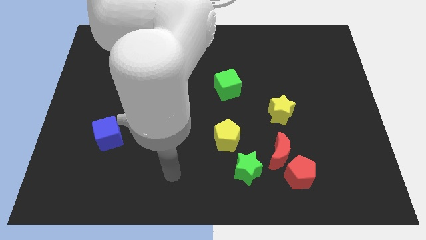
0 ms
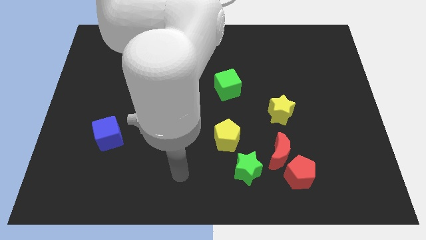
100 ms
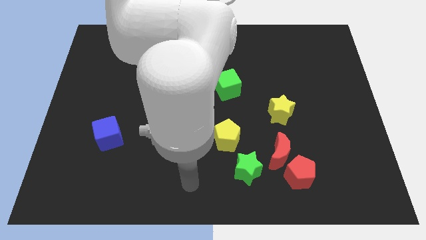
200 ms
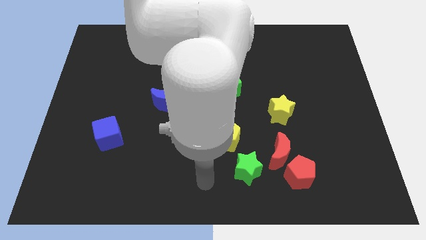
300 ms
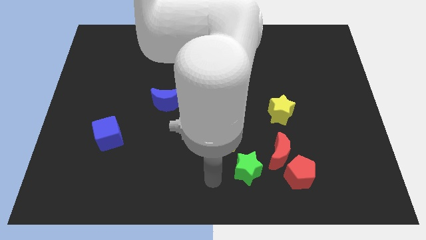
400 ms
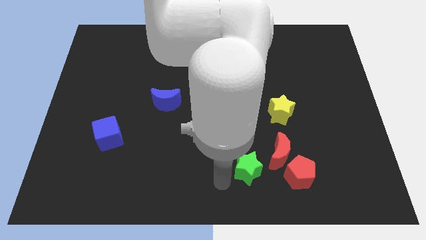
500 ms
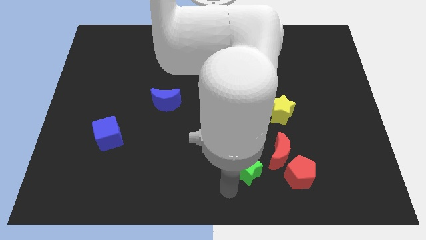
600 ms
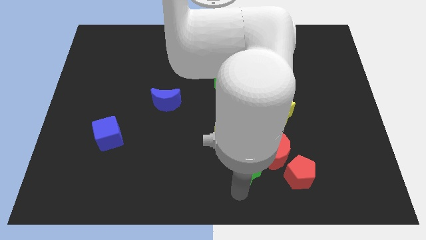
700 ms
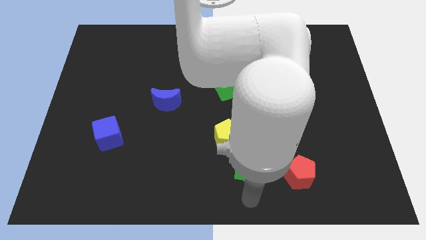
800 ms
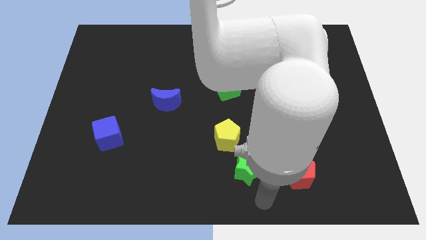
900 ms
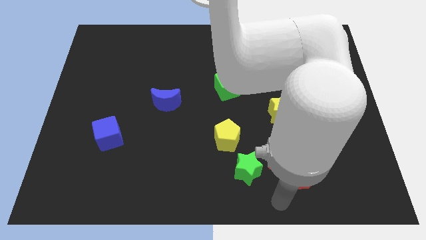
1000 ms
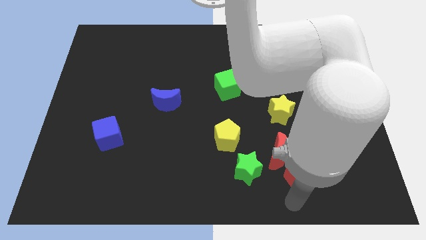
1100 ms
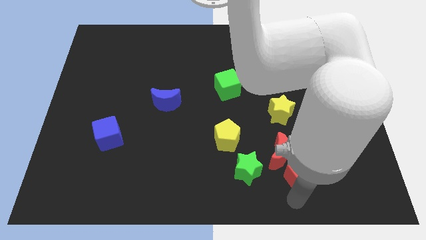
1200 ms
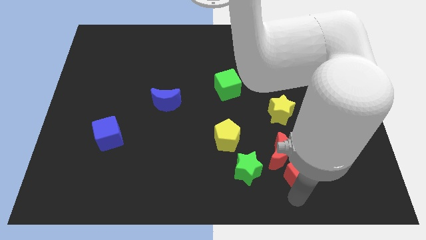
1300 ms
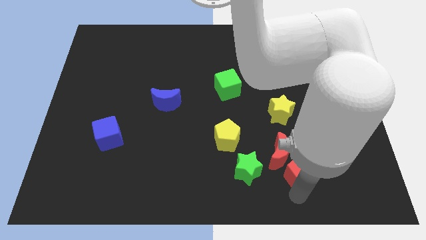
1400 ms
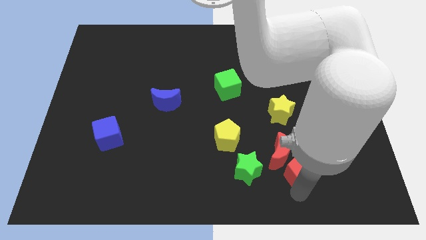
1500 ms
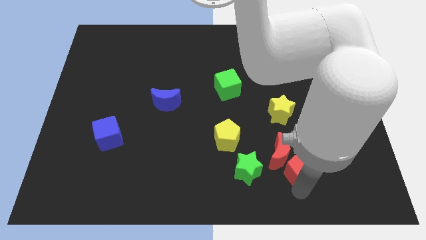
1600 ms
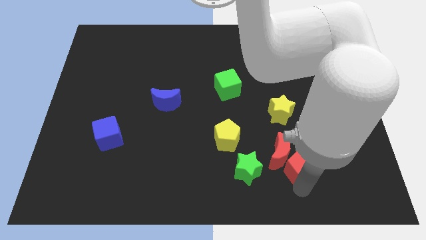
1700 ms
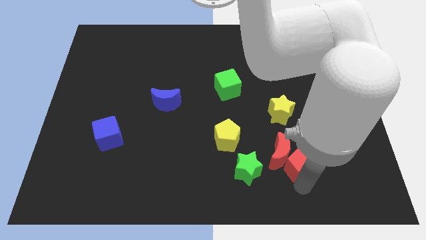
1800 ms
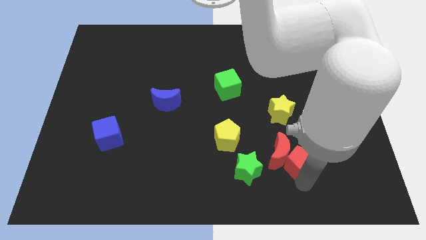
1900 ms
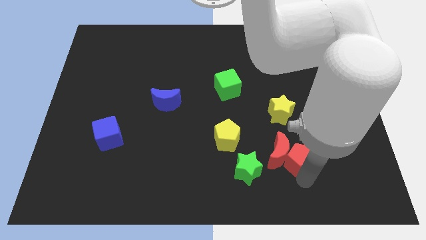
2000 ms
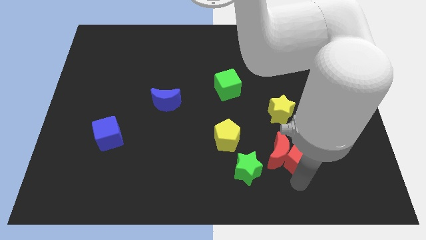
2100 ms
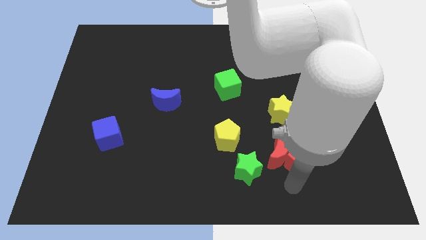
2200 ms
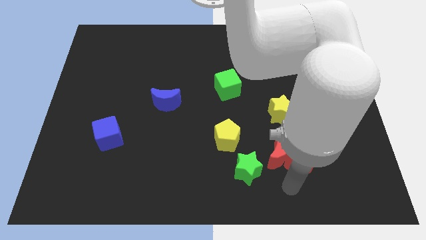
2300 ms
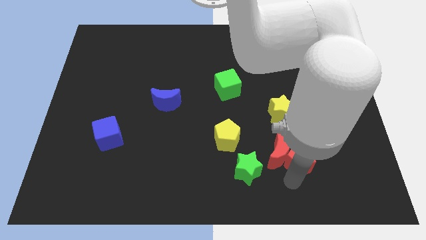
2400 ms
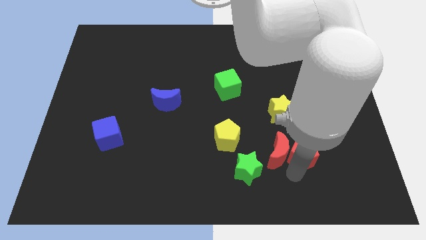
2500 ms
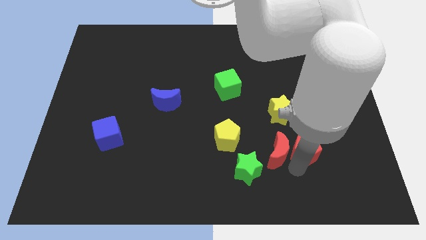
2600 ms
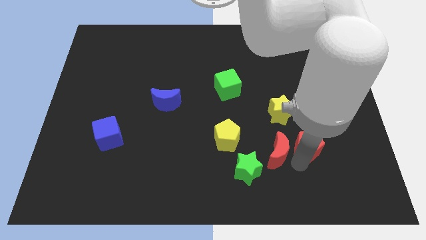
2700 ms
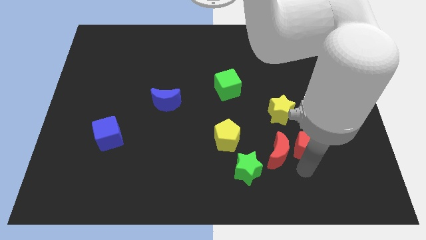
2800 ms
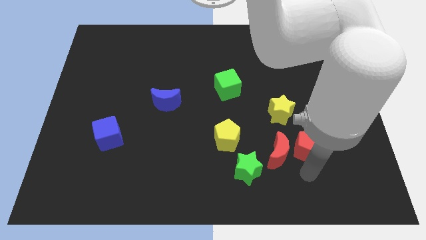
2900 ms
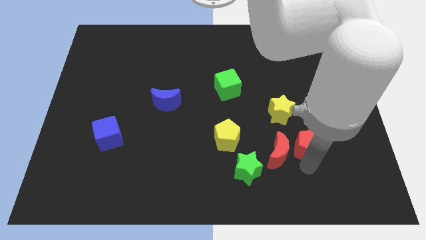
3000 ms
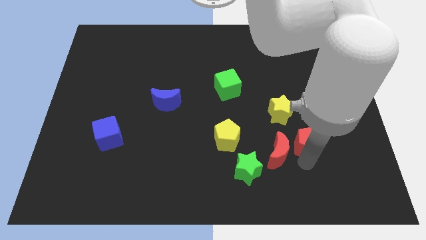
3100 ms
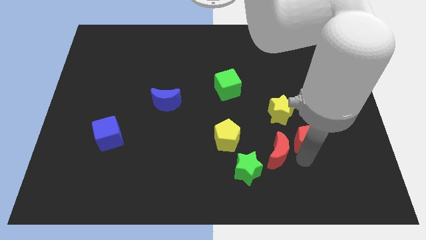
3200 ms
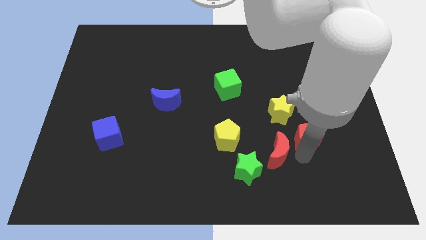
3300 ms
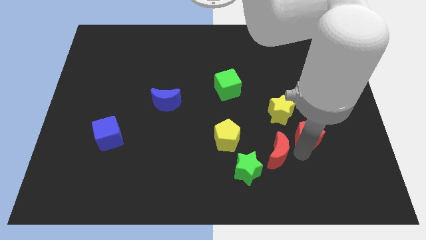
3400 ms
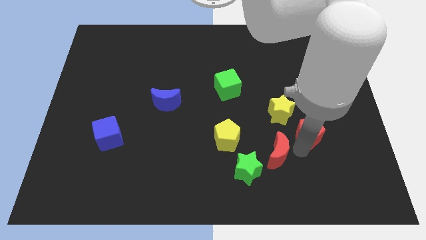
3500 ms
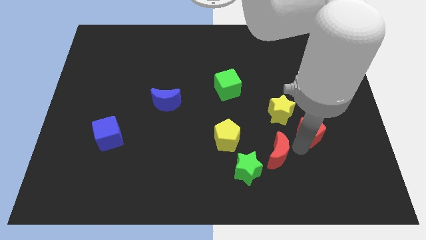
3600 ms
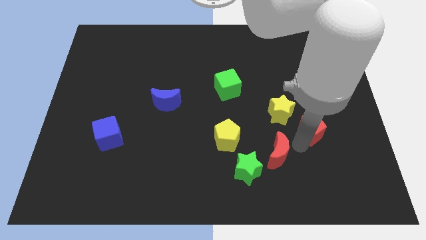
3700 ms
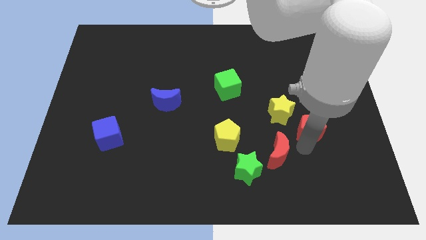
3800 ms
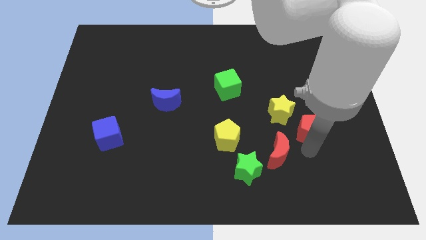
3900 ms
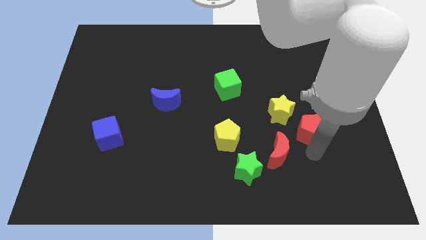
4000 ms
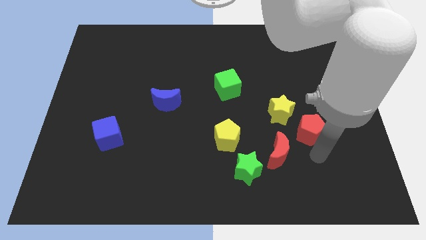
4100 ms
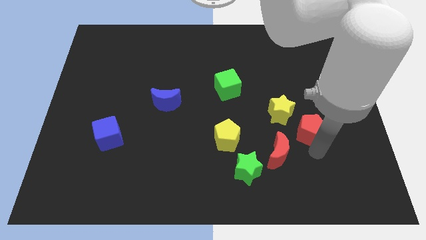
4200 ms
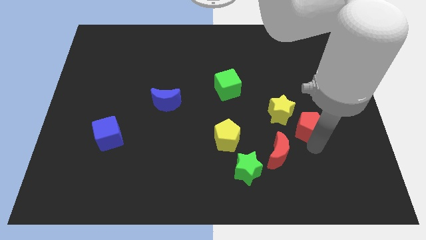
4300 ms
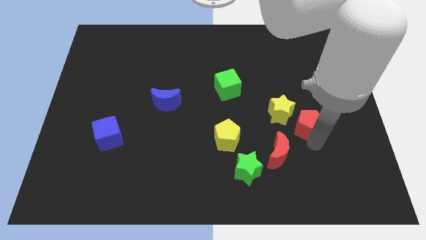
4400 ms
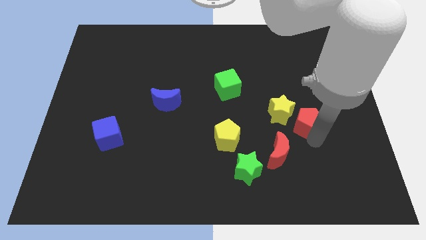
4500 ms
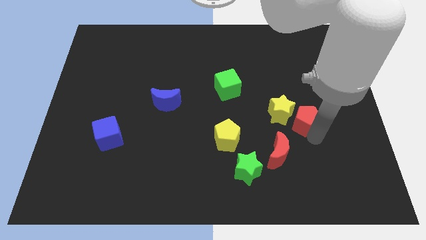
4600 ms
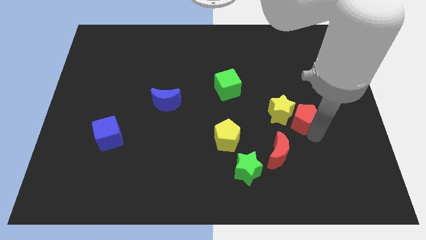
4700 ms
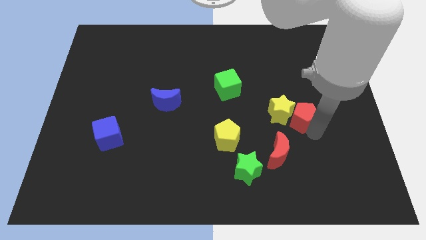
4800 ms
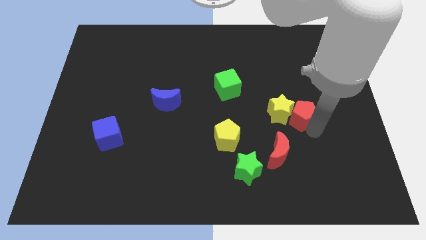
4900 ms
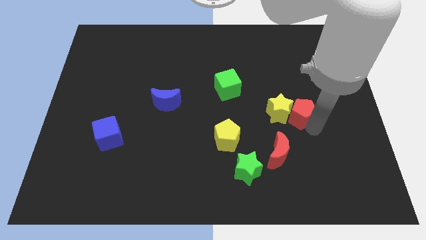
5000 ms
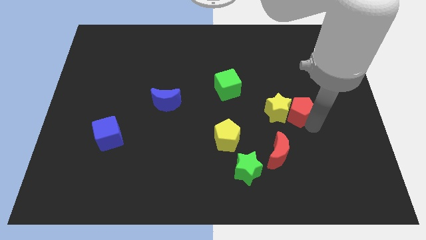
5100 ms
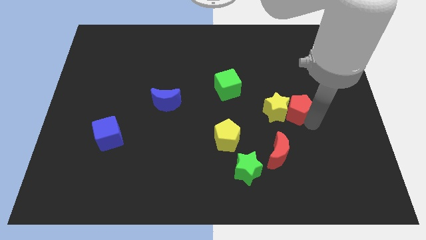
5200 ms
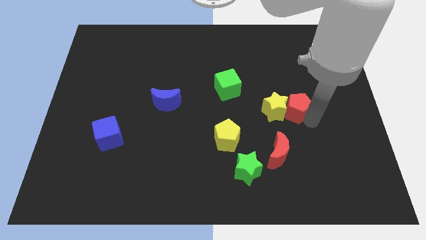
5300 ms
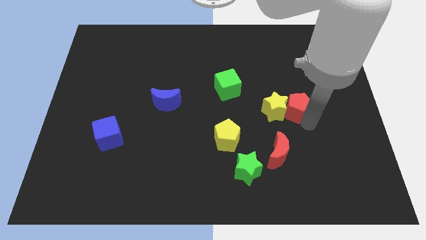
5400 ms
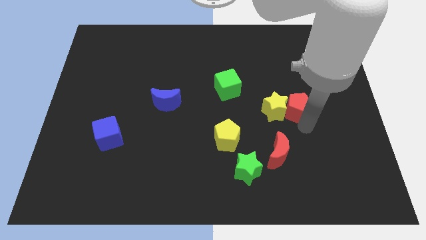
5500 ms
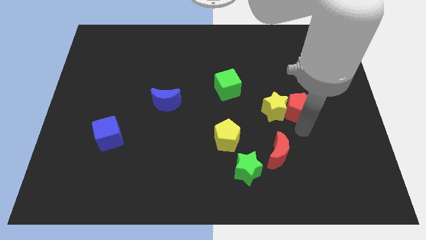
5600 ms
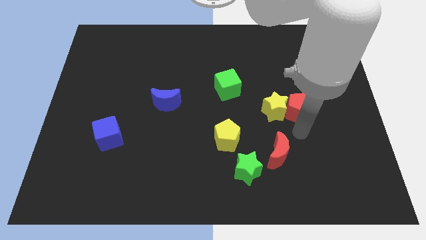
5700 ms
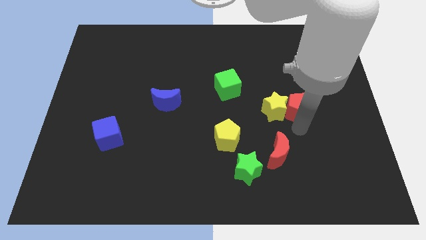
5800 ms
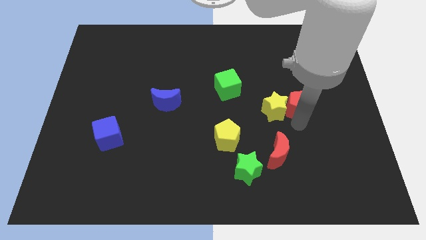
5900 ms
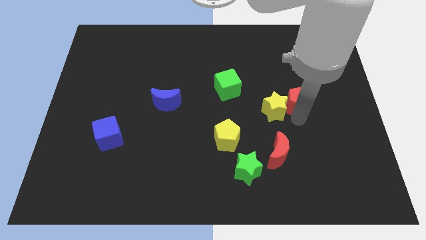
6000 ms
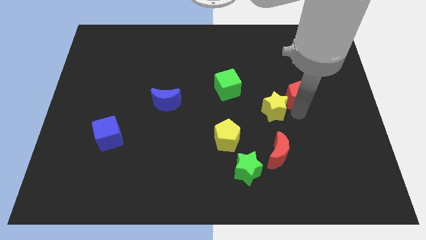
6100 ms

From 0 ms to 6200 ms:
slide the red pentagon upwards

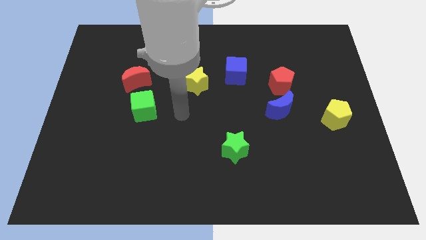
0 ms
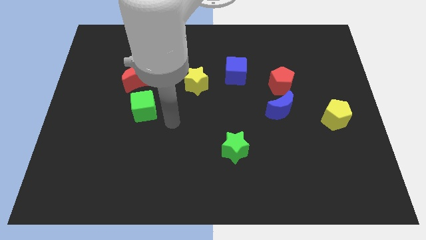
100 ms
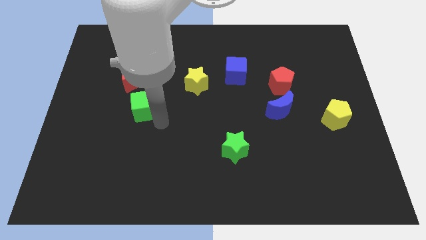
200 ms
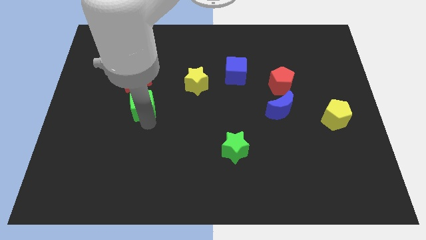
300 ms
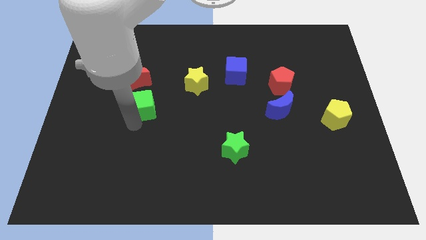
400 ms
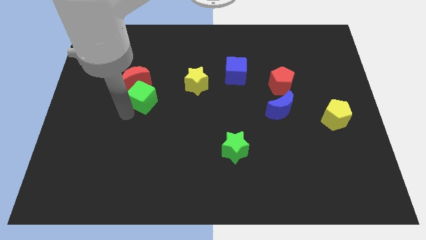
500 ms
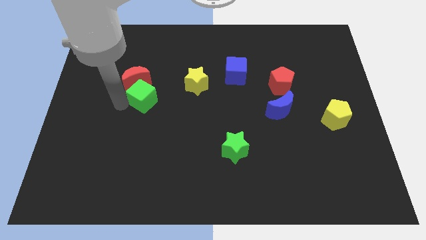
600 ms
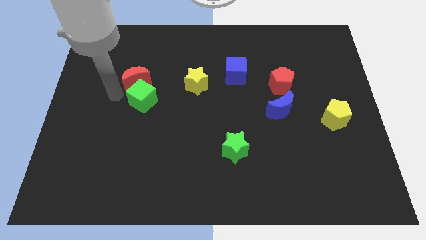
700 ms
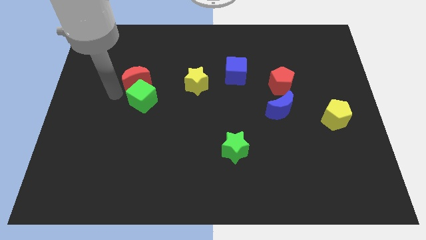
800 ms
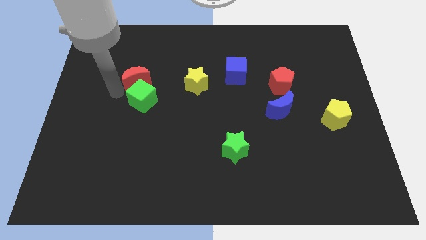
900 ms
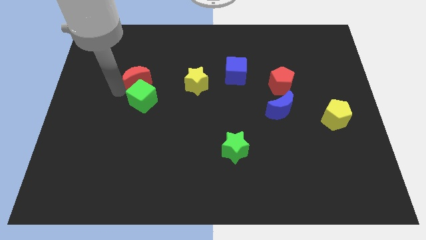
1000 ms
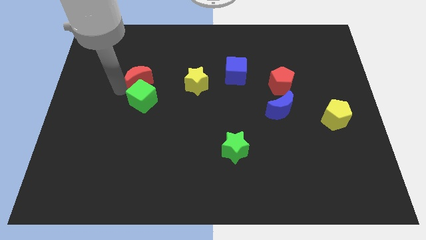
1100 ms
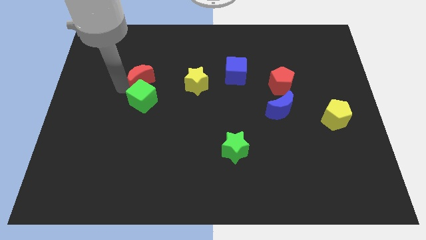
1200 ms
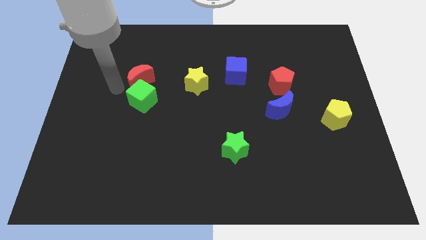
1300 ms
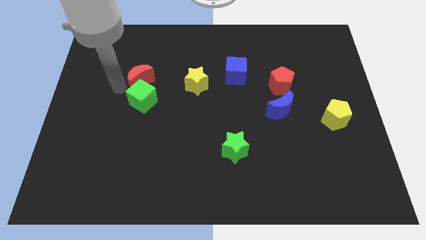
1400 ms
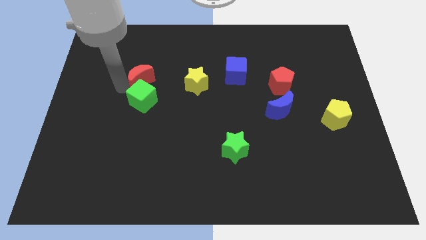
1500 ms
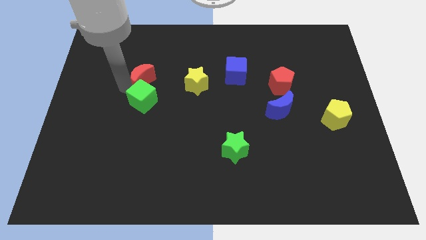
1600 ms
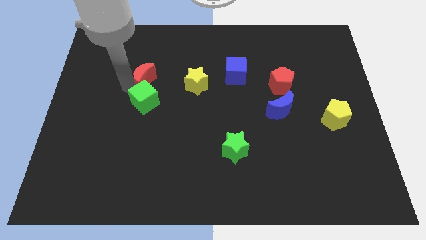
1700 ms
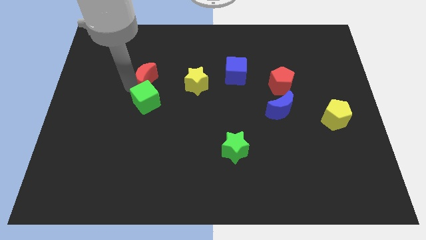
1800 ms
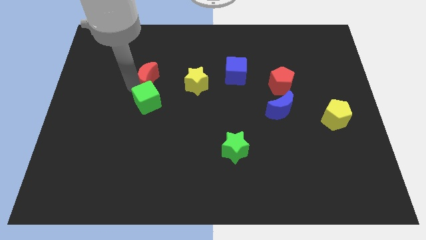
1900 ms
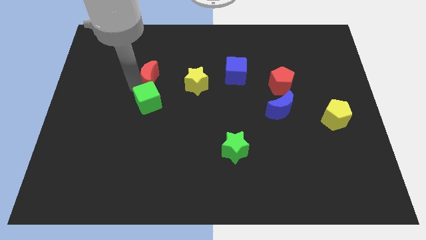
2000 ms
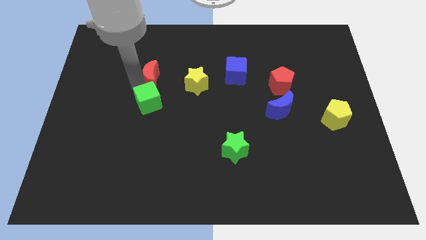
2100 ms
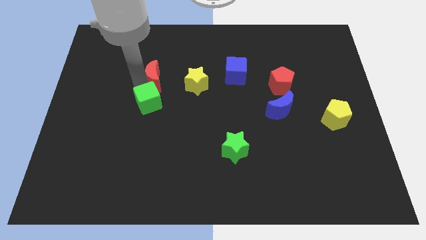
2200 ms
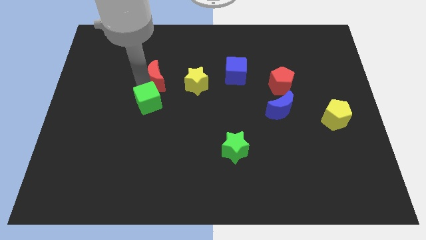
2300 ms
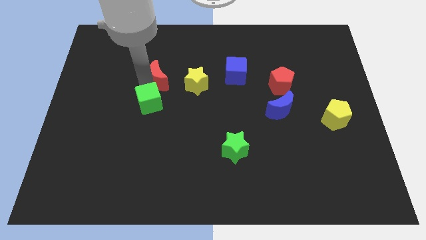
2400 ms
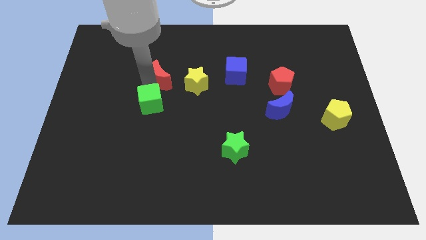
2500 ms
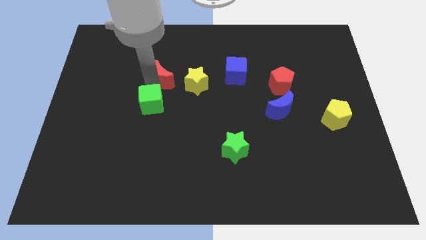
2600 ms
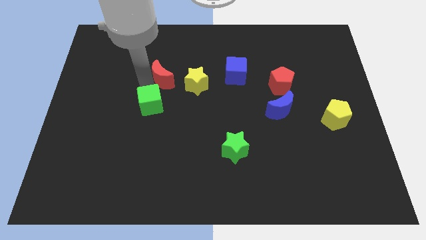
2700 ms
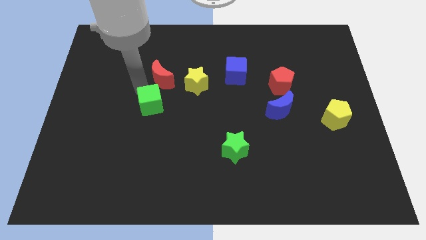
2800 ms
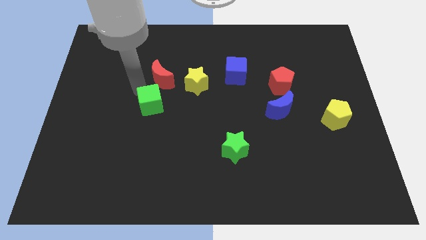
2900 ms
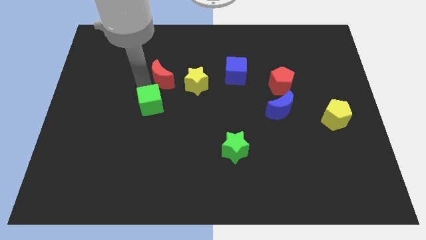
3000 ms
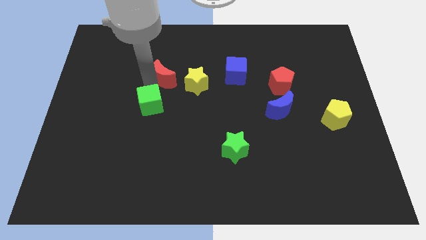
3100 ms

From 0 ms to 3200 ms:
slide the red moon right a little
